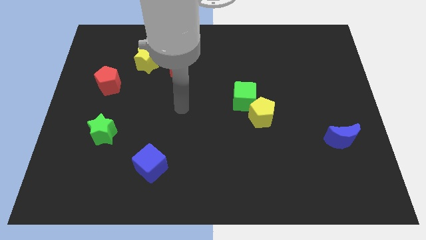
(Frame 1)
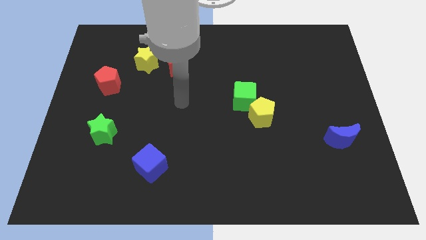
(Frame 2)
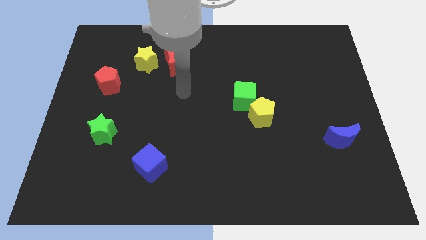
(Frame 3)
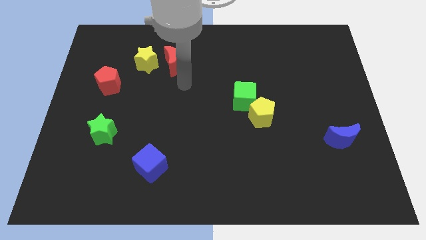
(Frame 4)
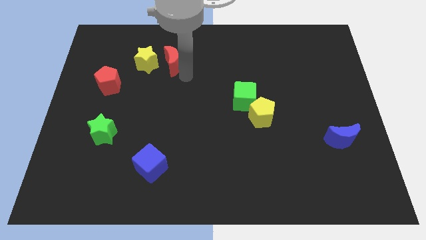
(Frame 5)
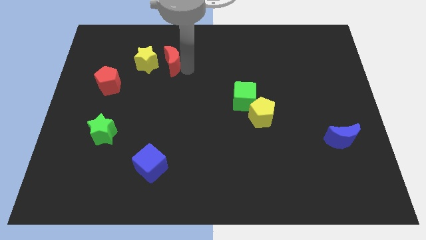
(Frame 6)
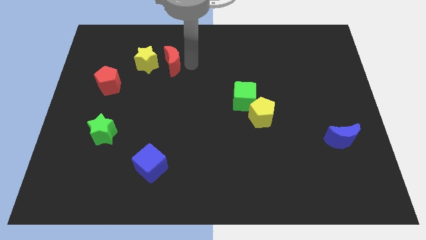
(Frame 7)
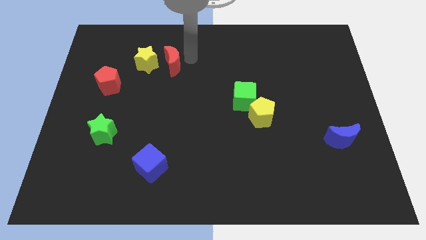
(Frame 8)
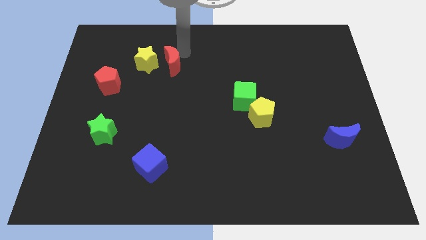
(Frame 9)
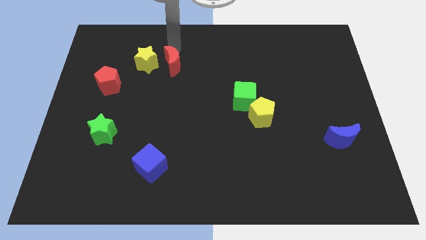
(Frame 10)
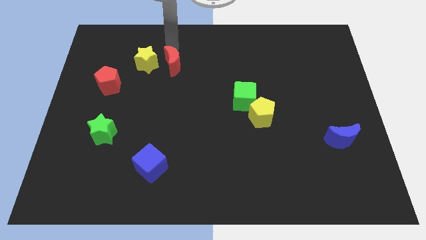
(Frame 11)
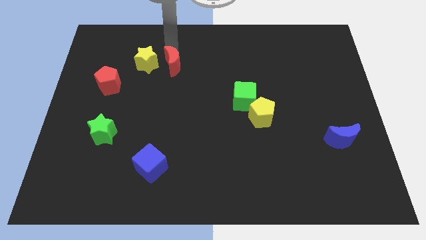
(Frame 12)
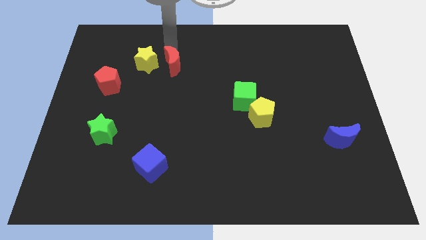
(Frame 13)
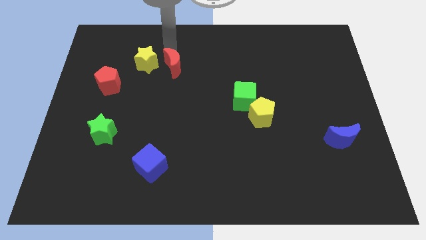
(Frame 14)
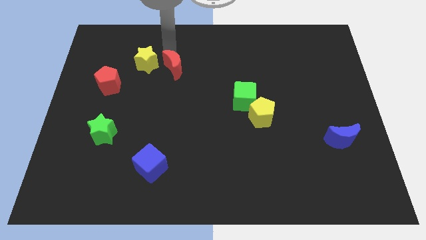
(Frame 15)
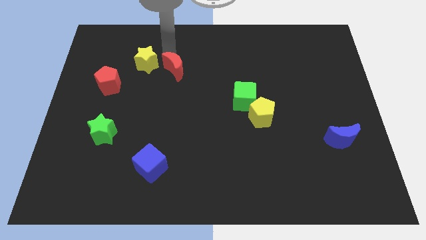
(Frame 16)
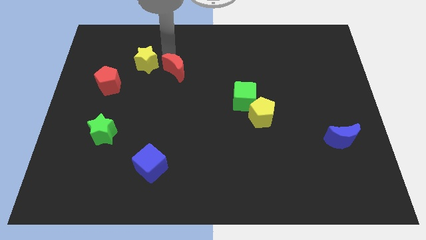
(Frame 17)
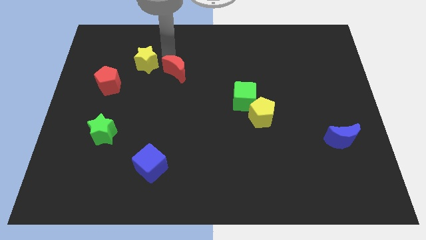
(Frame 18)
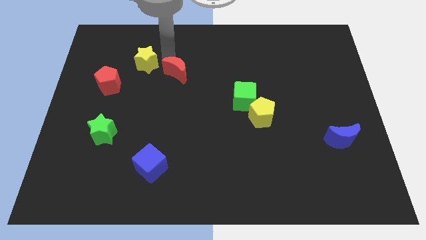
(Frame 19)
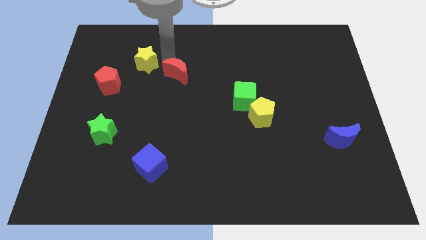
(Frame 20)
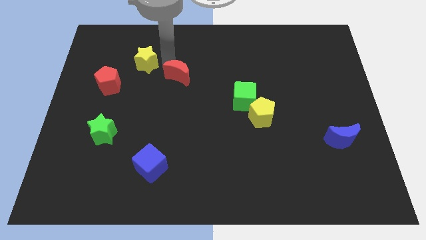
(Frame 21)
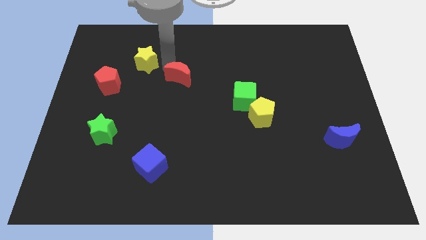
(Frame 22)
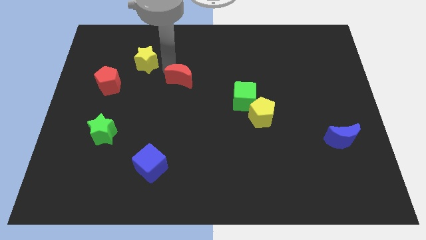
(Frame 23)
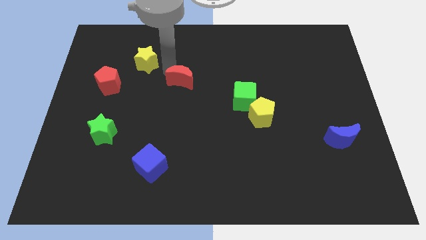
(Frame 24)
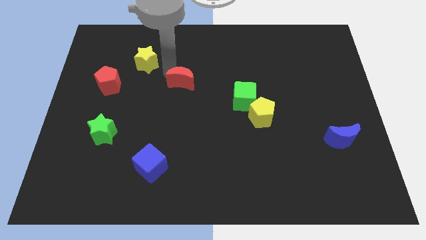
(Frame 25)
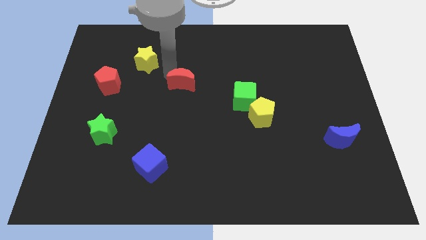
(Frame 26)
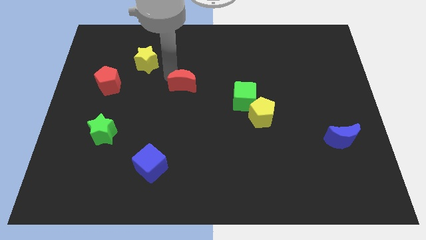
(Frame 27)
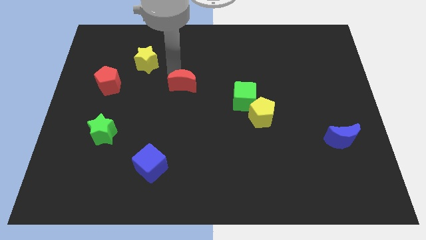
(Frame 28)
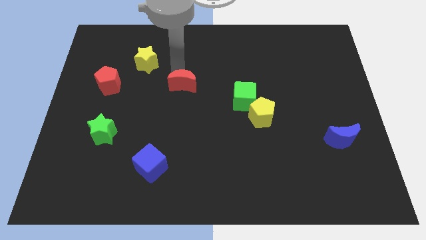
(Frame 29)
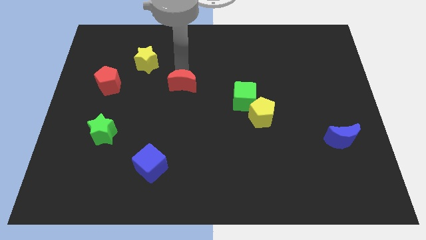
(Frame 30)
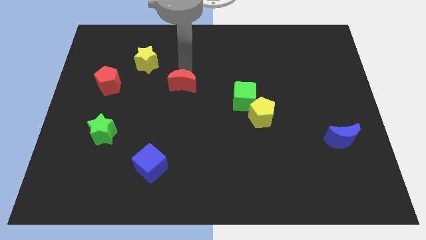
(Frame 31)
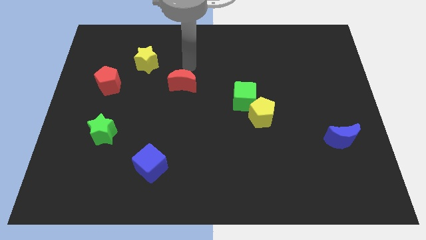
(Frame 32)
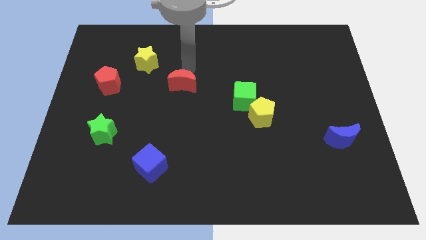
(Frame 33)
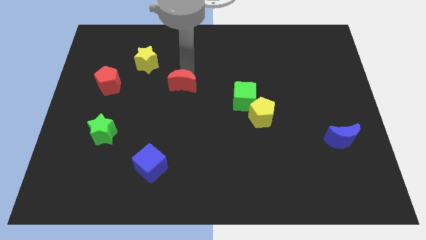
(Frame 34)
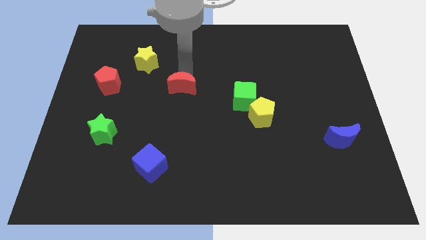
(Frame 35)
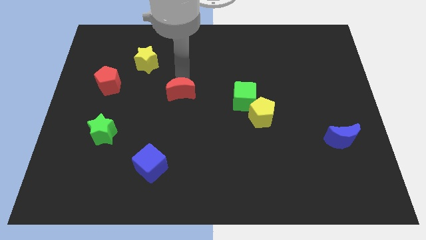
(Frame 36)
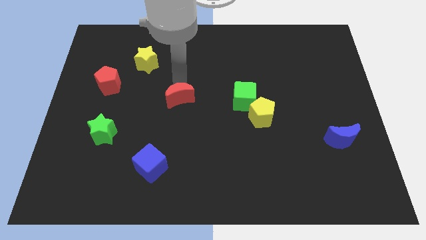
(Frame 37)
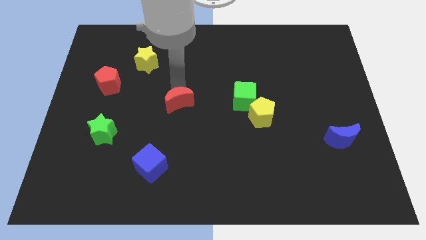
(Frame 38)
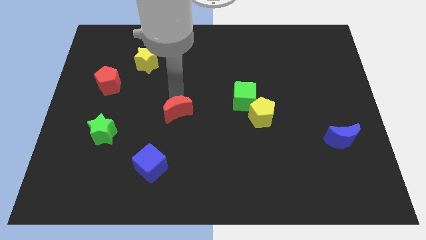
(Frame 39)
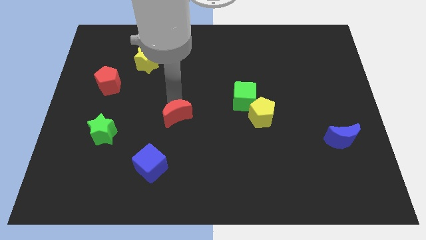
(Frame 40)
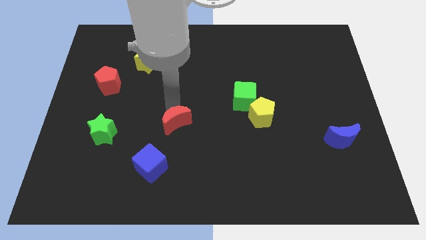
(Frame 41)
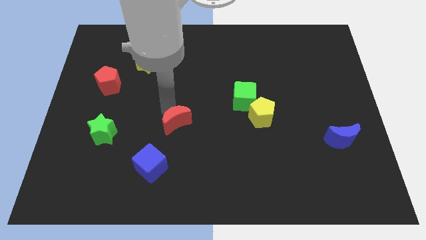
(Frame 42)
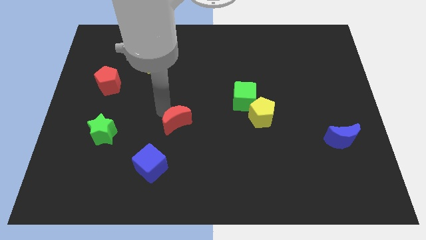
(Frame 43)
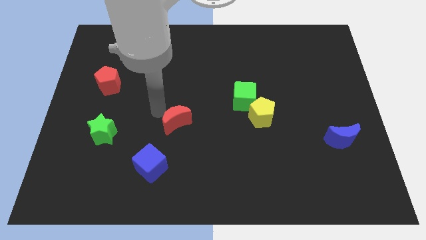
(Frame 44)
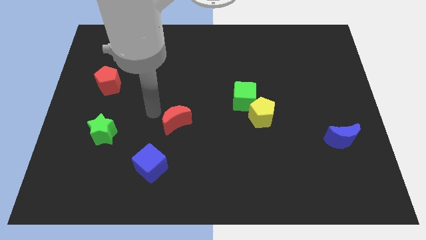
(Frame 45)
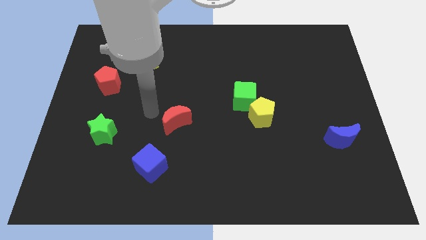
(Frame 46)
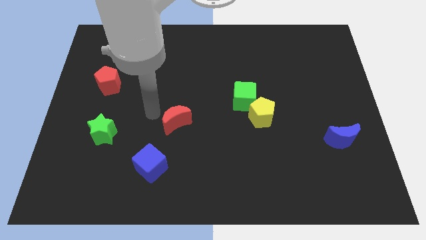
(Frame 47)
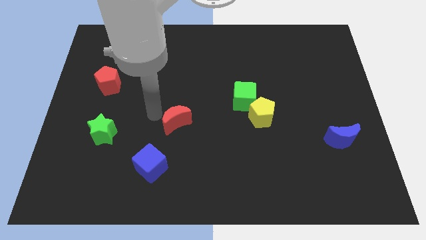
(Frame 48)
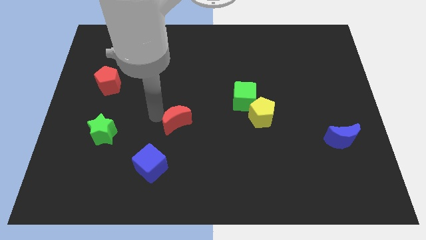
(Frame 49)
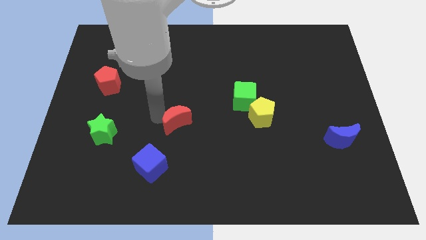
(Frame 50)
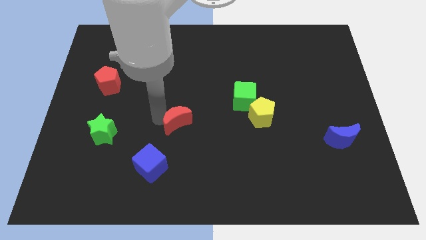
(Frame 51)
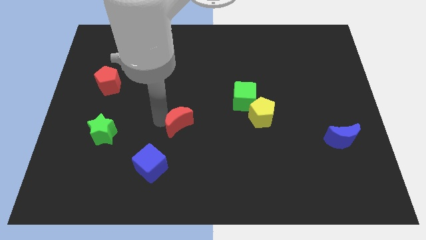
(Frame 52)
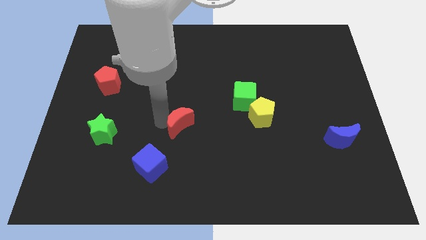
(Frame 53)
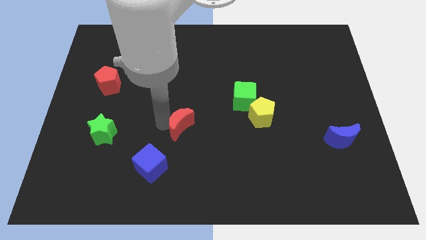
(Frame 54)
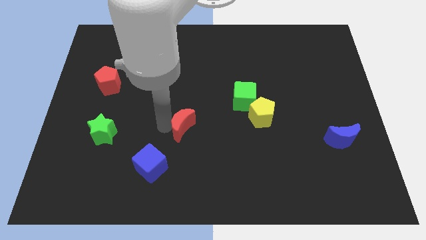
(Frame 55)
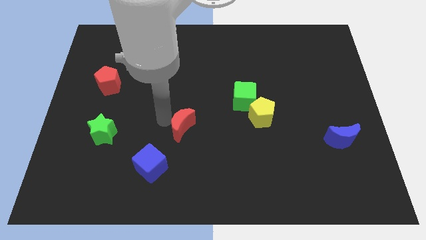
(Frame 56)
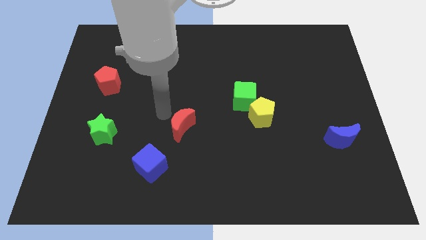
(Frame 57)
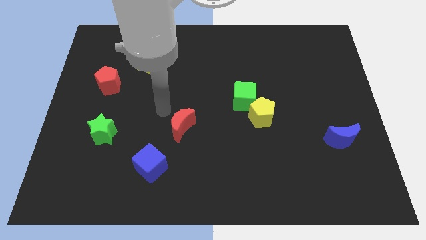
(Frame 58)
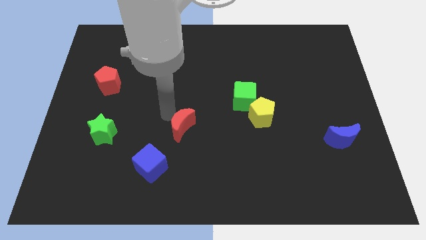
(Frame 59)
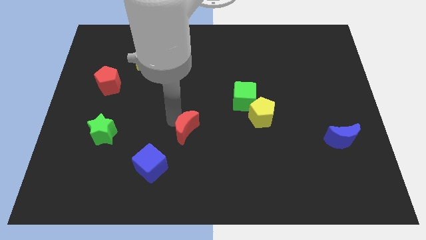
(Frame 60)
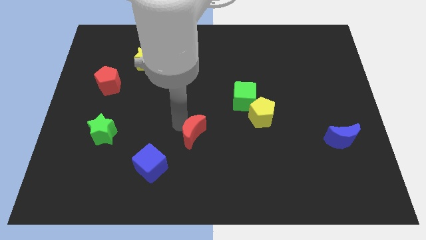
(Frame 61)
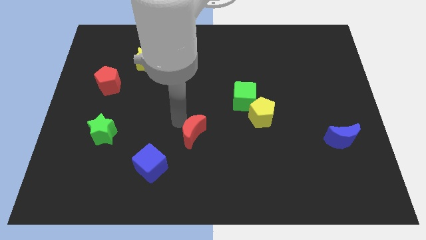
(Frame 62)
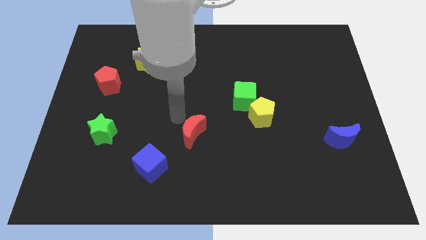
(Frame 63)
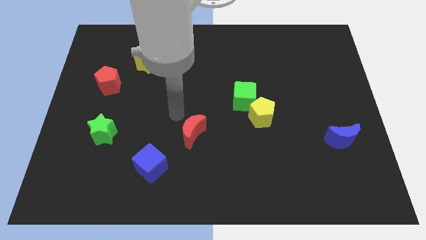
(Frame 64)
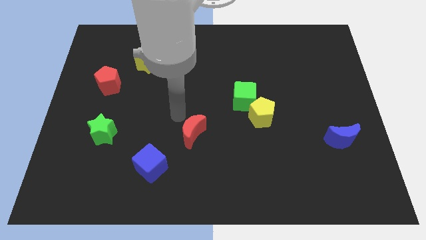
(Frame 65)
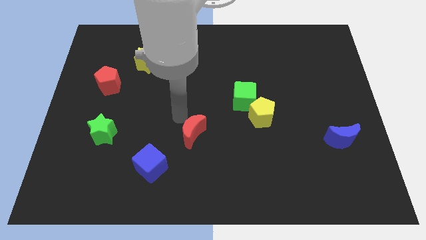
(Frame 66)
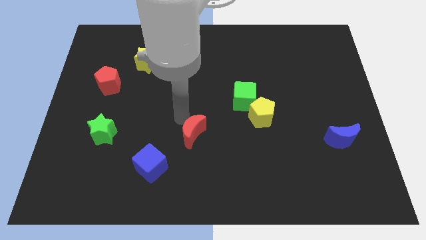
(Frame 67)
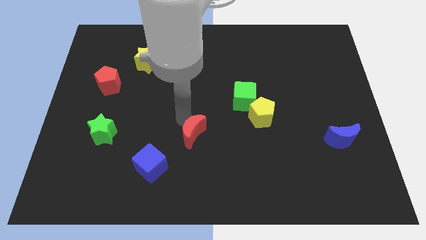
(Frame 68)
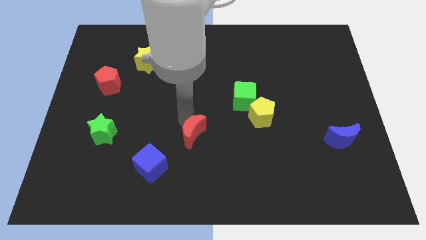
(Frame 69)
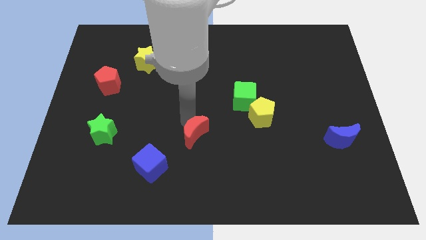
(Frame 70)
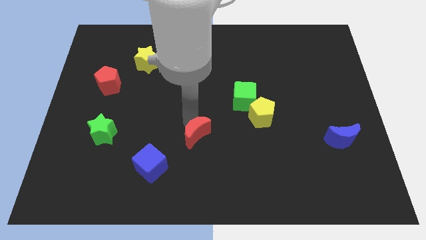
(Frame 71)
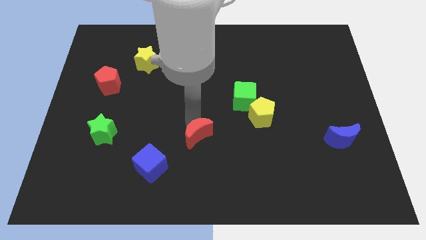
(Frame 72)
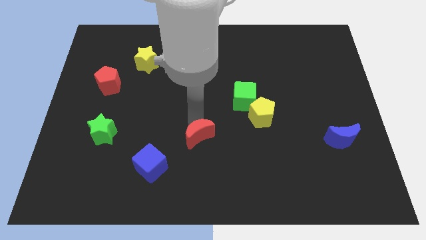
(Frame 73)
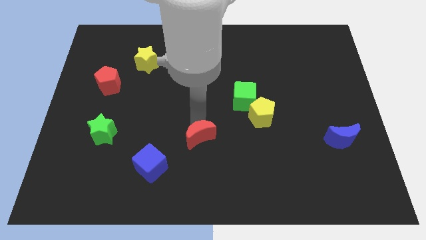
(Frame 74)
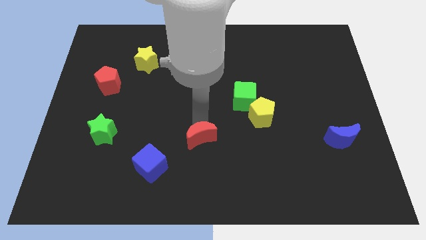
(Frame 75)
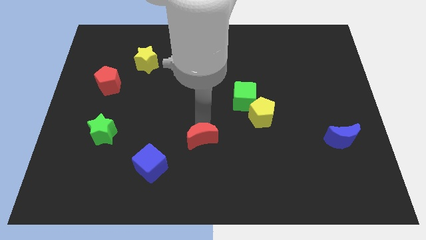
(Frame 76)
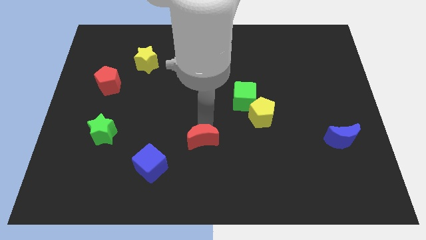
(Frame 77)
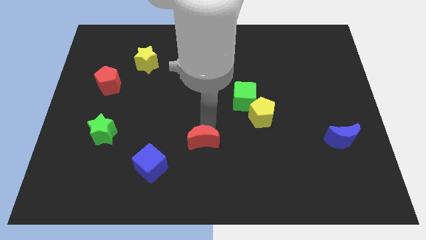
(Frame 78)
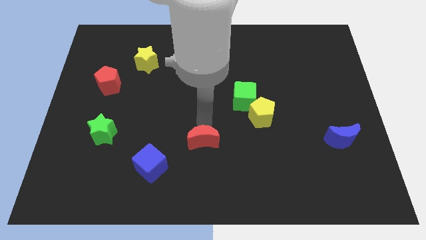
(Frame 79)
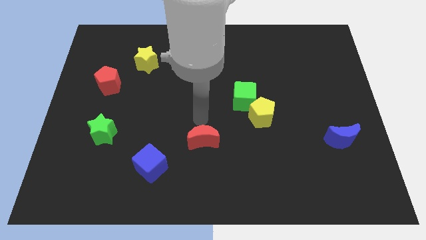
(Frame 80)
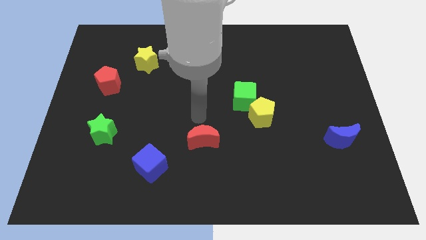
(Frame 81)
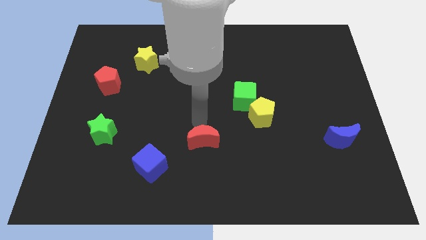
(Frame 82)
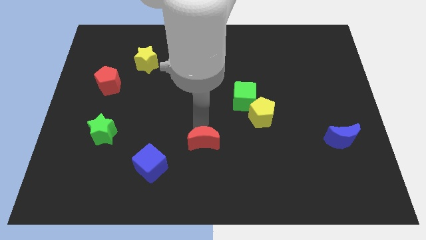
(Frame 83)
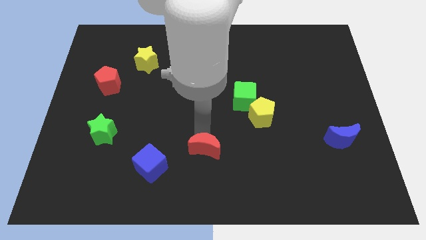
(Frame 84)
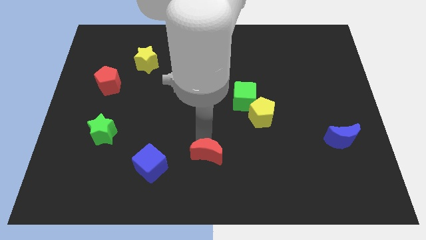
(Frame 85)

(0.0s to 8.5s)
put the red moon to the bottom
